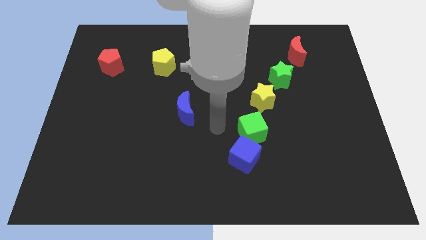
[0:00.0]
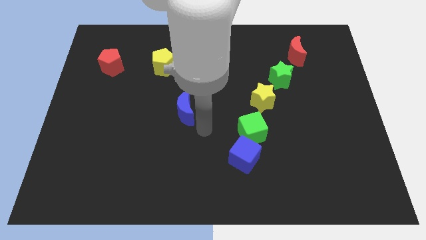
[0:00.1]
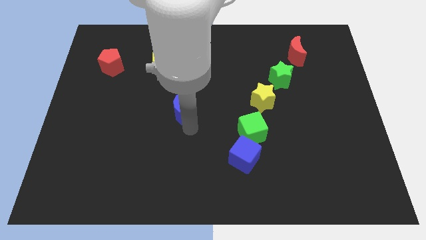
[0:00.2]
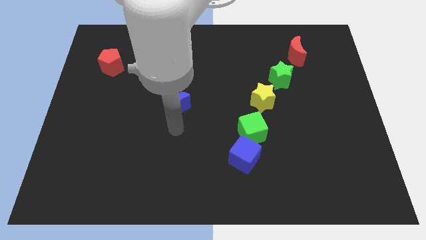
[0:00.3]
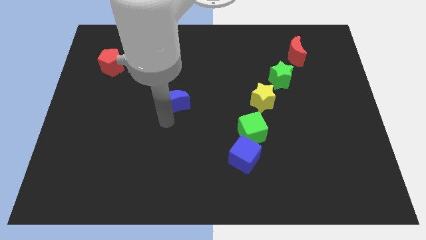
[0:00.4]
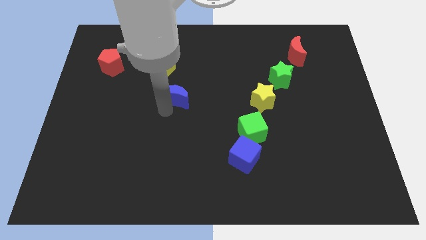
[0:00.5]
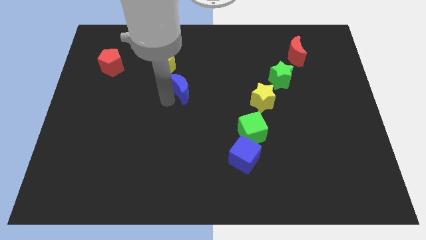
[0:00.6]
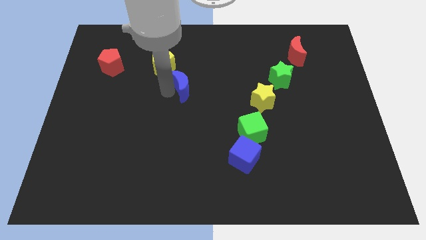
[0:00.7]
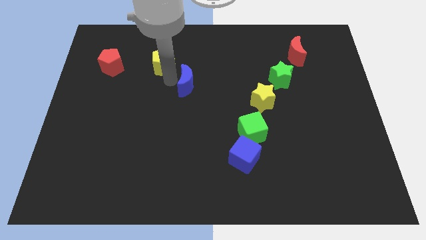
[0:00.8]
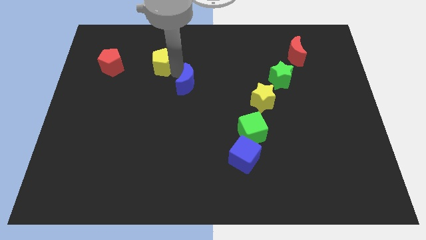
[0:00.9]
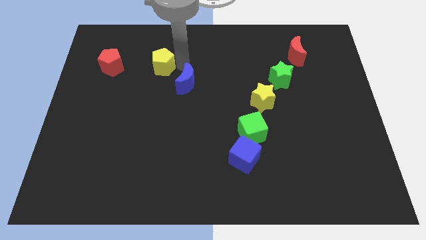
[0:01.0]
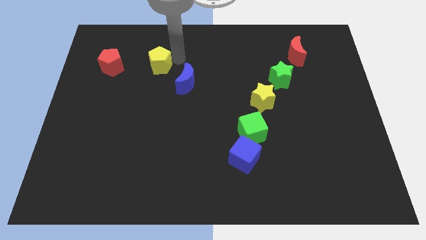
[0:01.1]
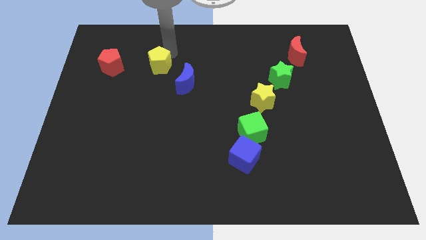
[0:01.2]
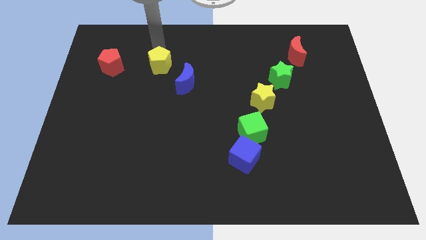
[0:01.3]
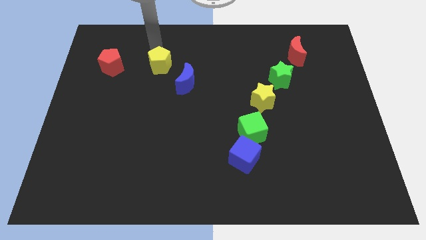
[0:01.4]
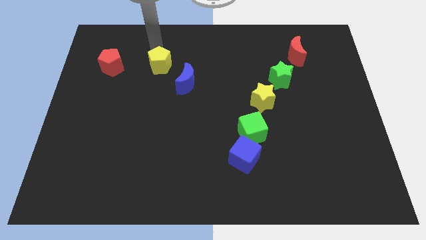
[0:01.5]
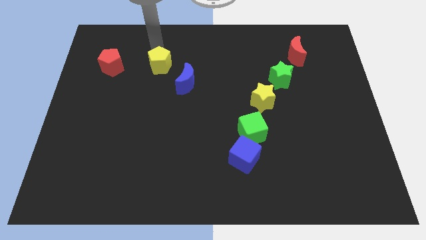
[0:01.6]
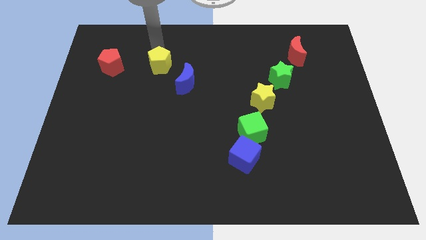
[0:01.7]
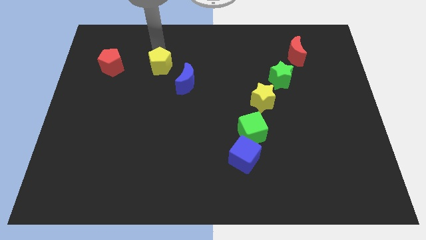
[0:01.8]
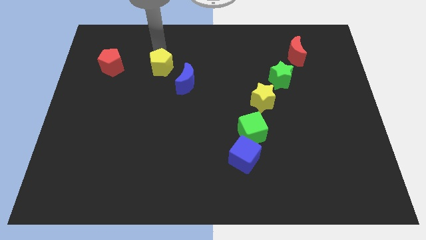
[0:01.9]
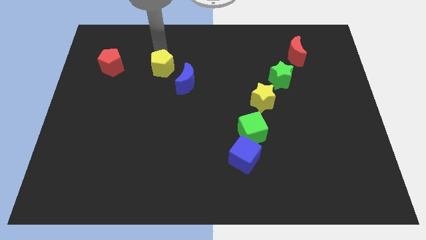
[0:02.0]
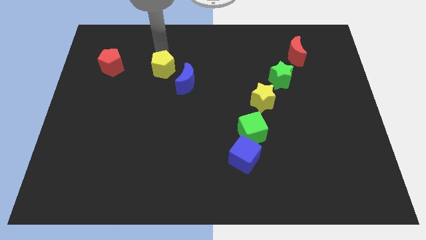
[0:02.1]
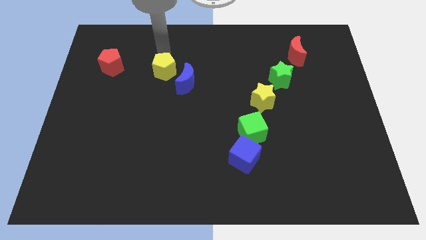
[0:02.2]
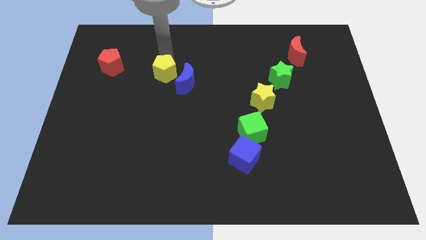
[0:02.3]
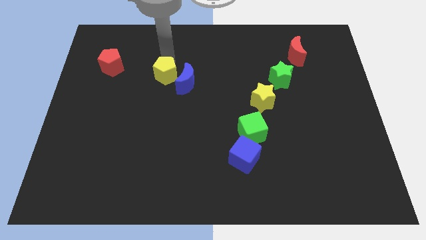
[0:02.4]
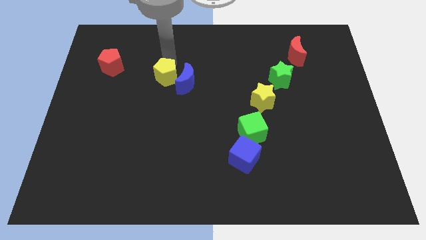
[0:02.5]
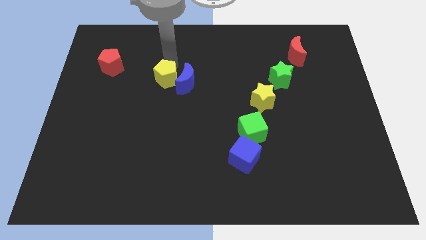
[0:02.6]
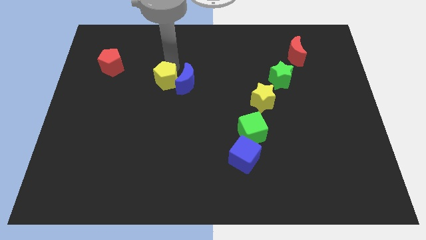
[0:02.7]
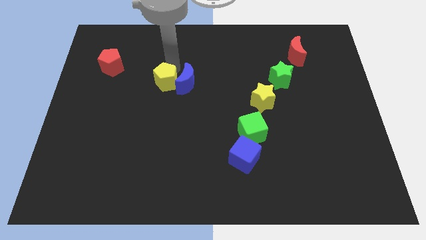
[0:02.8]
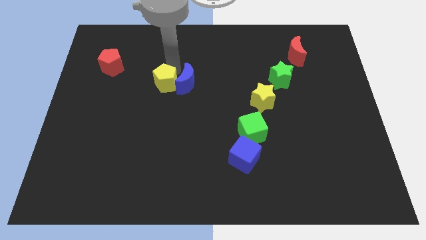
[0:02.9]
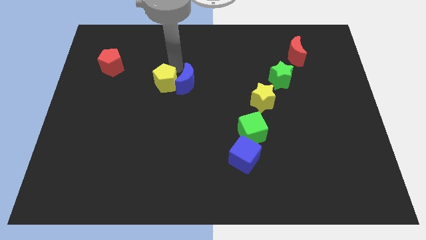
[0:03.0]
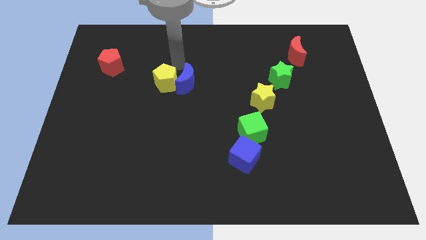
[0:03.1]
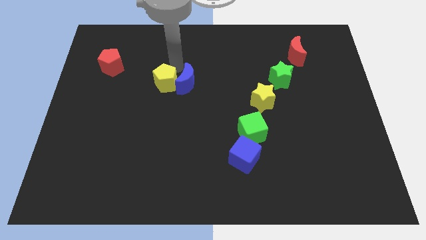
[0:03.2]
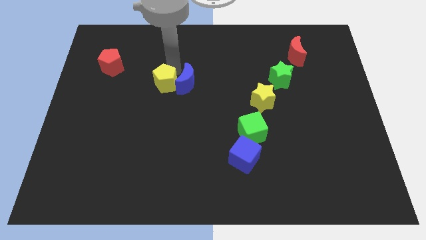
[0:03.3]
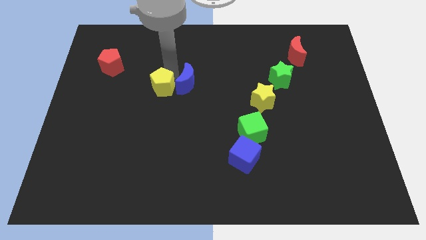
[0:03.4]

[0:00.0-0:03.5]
slightly move the yellow pentagon downwards

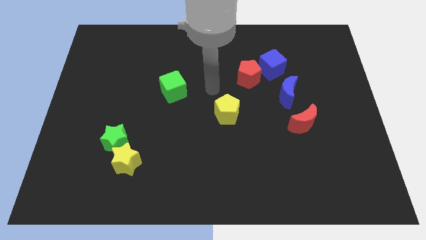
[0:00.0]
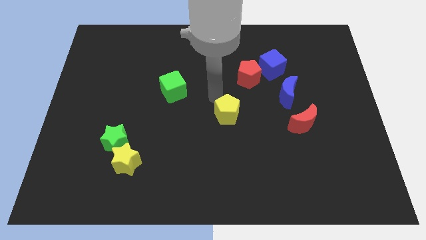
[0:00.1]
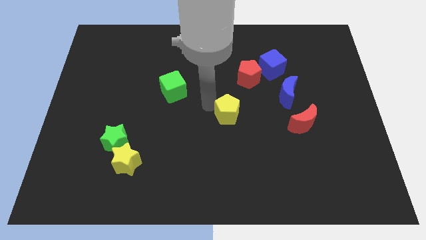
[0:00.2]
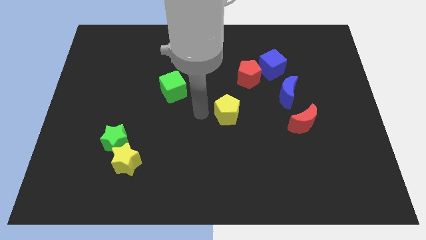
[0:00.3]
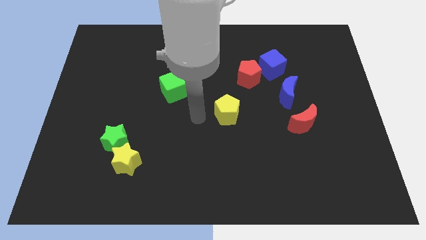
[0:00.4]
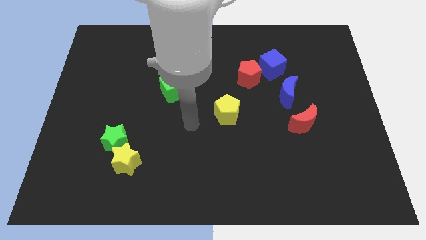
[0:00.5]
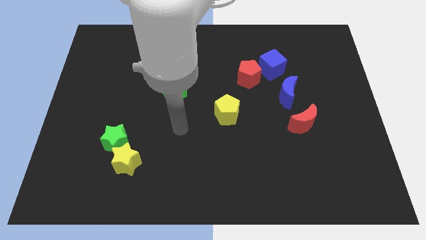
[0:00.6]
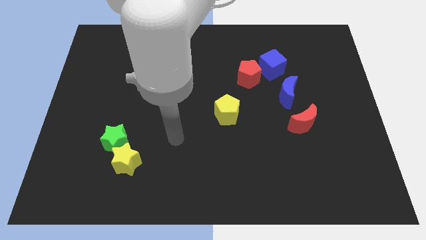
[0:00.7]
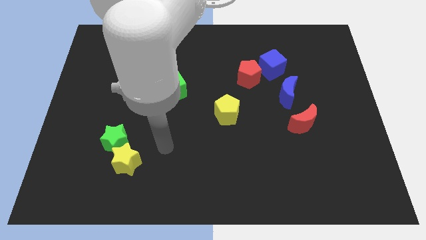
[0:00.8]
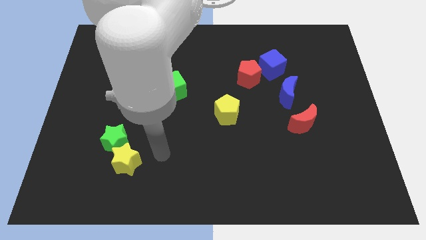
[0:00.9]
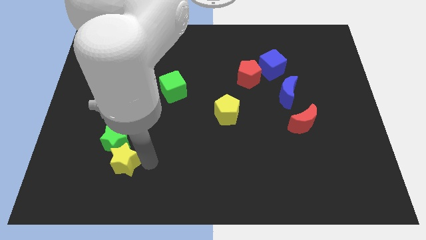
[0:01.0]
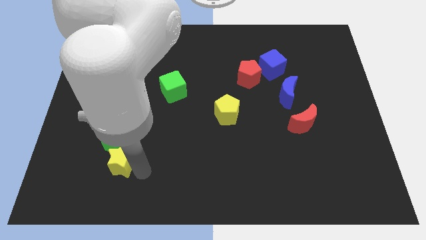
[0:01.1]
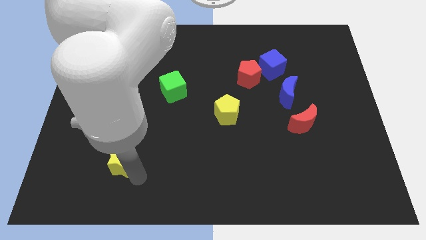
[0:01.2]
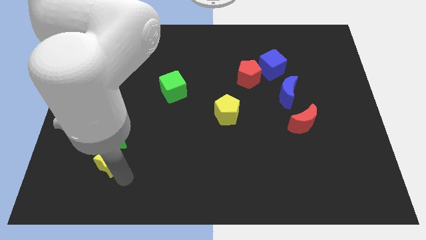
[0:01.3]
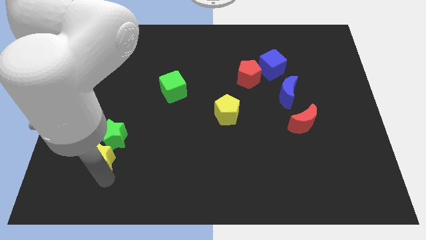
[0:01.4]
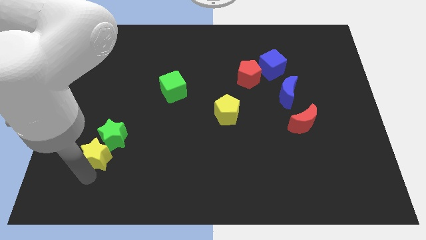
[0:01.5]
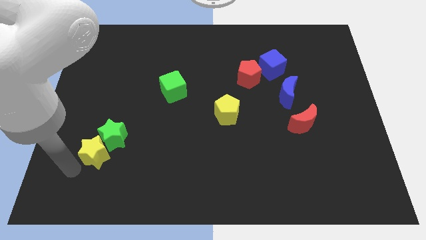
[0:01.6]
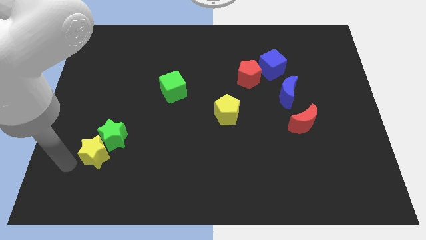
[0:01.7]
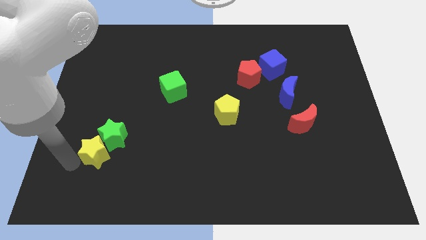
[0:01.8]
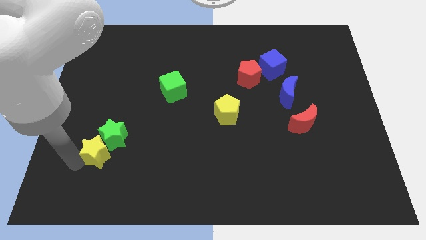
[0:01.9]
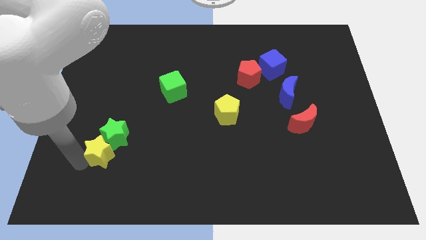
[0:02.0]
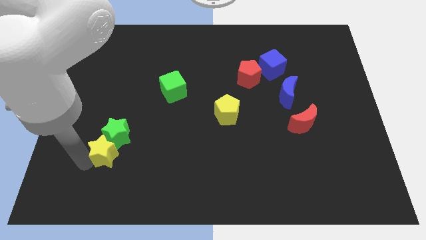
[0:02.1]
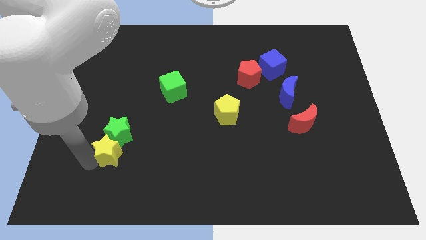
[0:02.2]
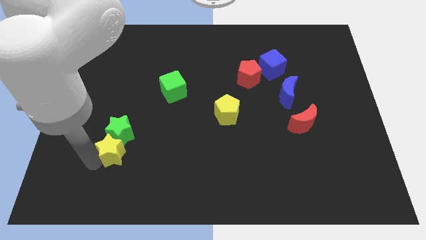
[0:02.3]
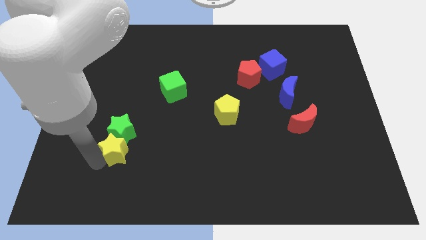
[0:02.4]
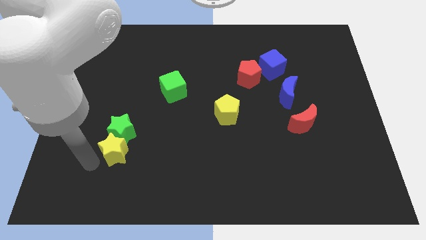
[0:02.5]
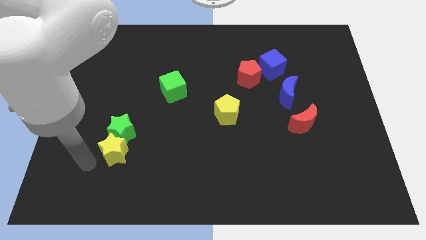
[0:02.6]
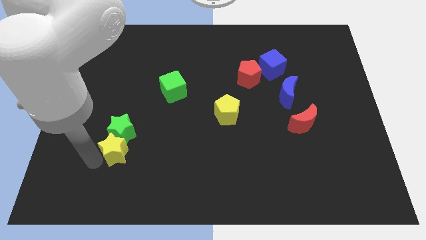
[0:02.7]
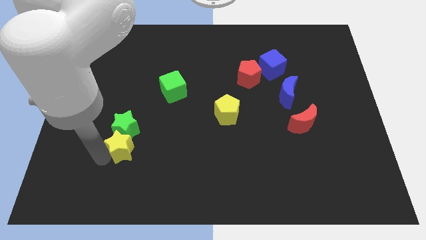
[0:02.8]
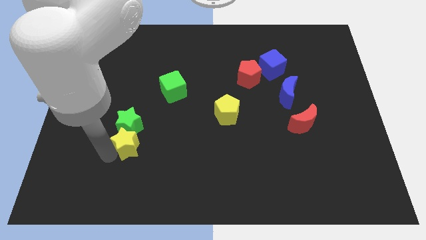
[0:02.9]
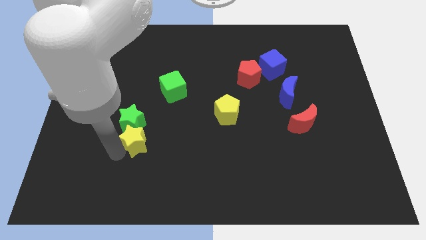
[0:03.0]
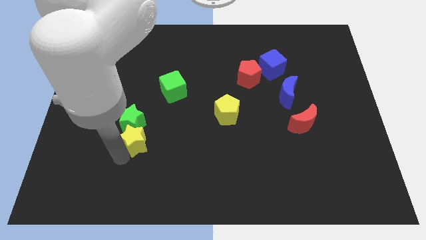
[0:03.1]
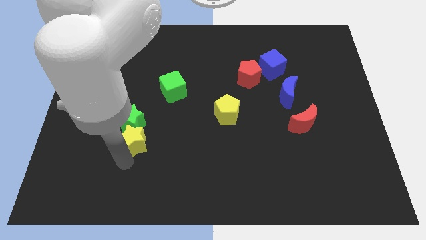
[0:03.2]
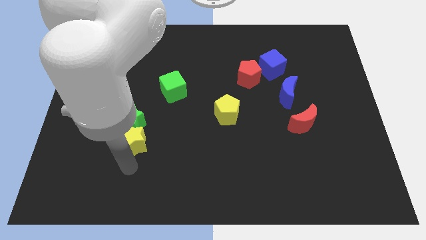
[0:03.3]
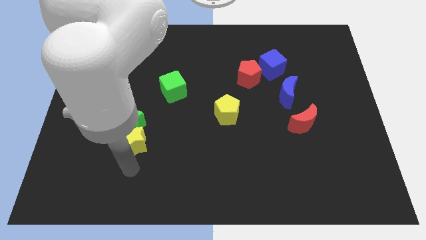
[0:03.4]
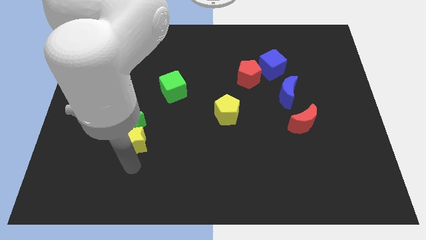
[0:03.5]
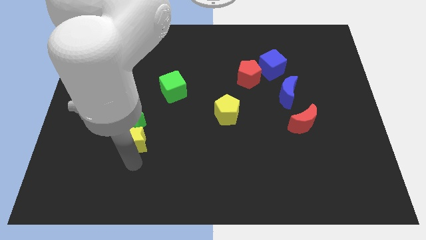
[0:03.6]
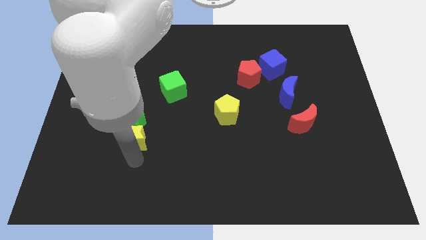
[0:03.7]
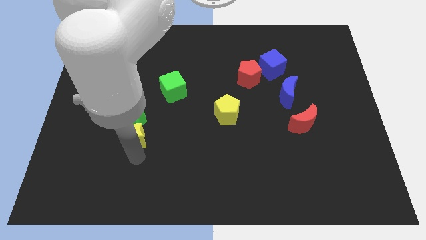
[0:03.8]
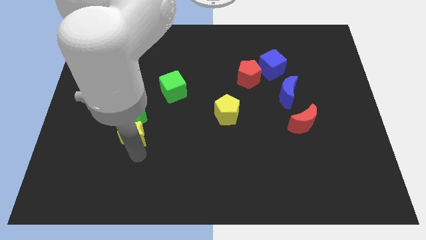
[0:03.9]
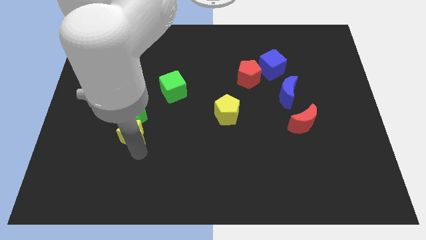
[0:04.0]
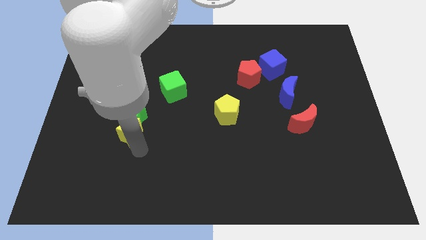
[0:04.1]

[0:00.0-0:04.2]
slide the yellow star slightly up

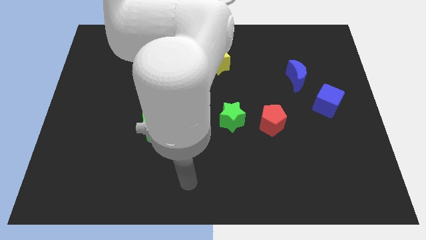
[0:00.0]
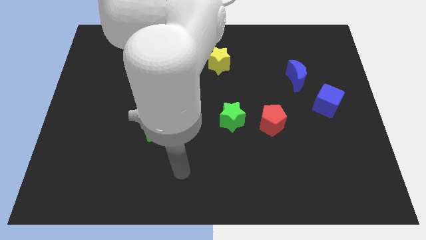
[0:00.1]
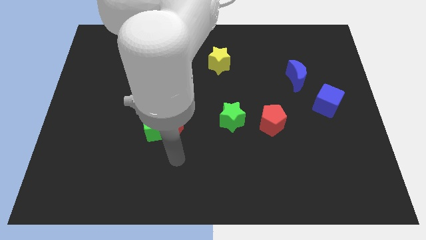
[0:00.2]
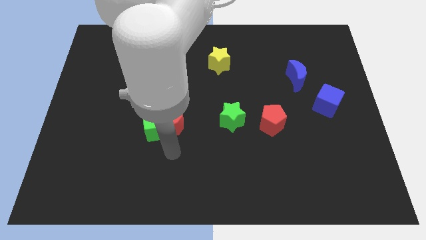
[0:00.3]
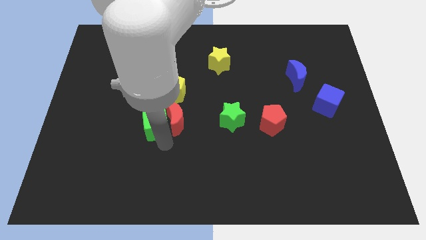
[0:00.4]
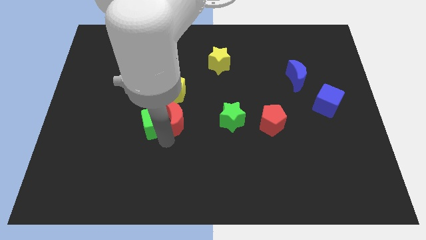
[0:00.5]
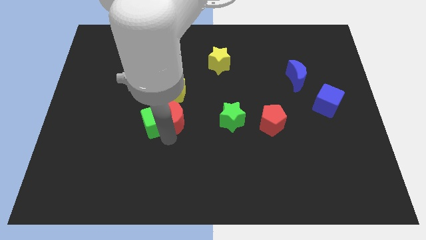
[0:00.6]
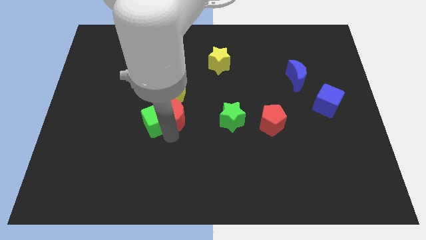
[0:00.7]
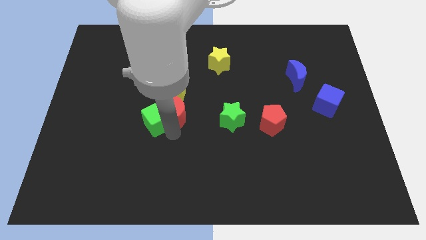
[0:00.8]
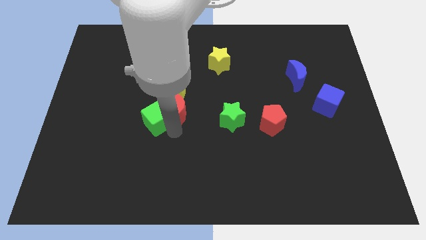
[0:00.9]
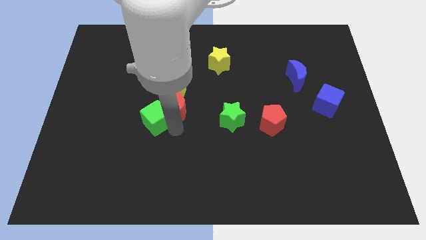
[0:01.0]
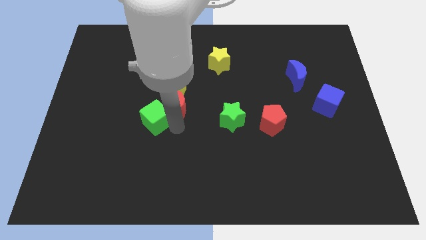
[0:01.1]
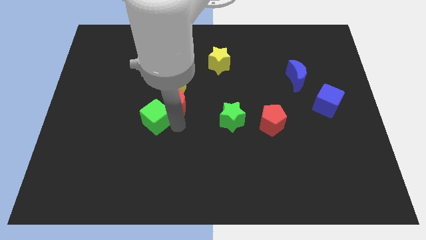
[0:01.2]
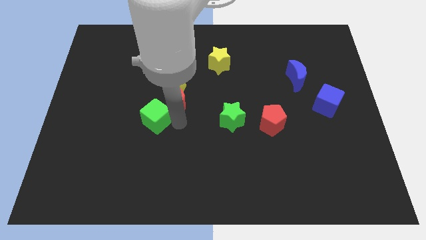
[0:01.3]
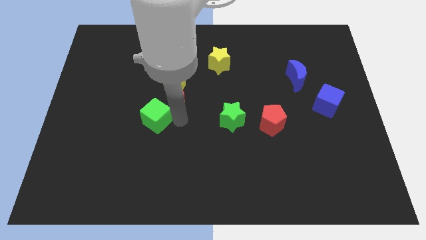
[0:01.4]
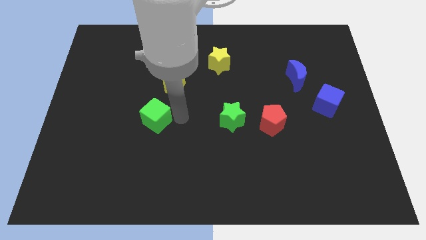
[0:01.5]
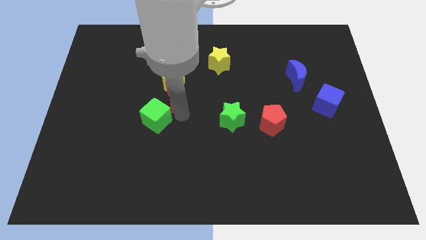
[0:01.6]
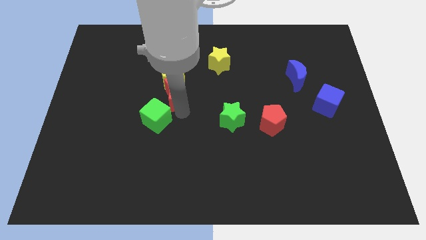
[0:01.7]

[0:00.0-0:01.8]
move the red moon up a little
